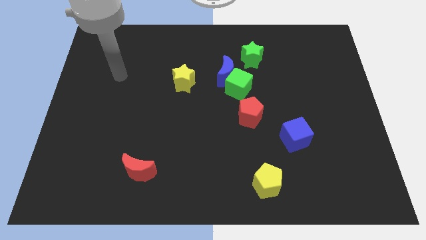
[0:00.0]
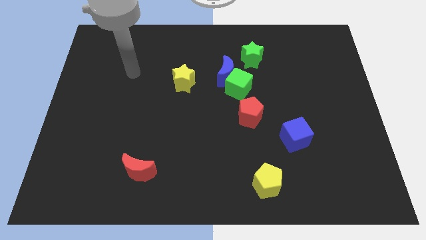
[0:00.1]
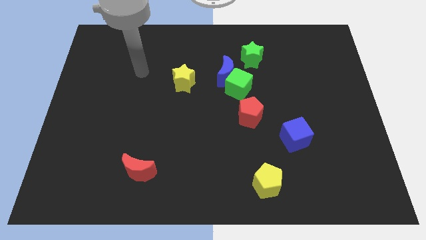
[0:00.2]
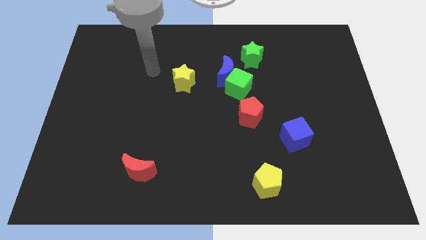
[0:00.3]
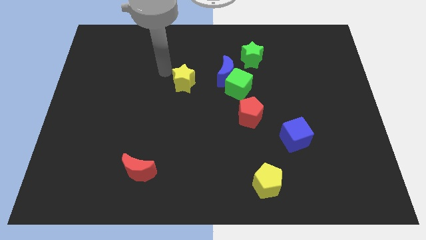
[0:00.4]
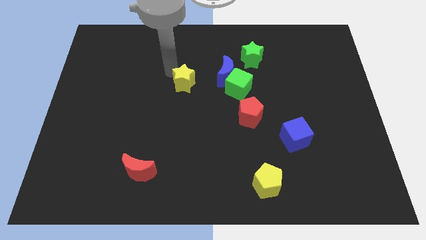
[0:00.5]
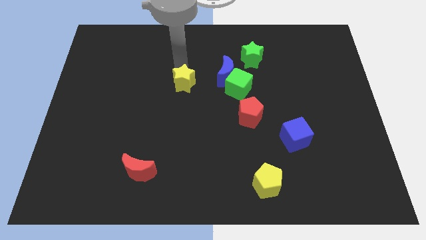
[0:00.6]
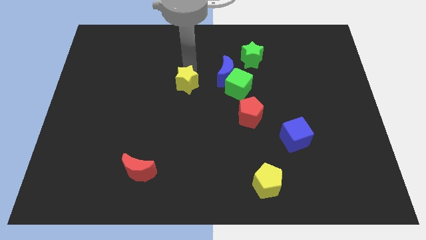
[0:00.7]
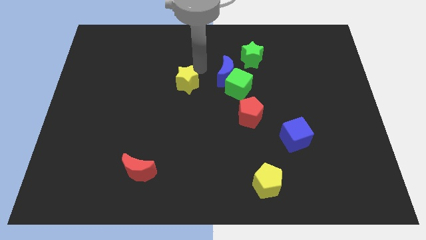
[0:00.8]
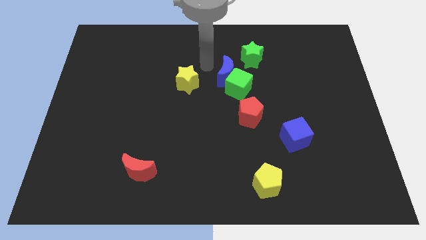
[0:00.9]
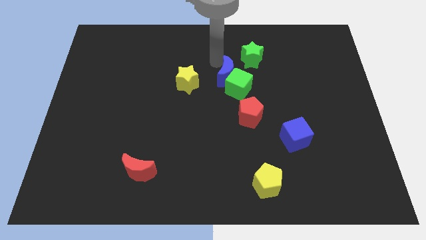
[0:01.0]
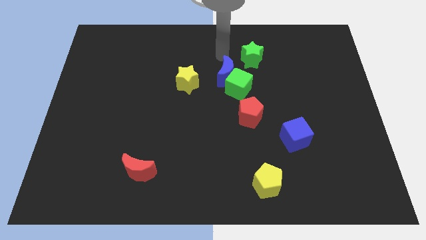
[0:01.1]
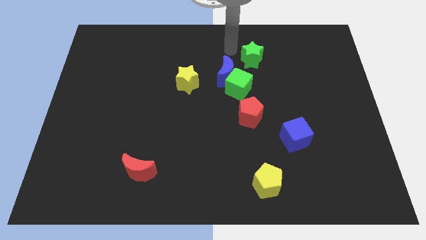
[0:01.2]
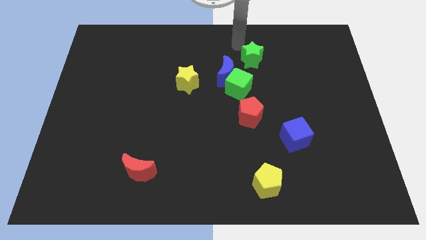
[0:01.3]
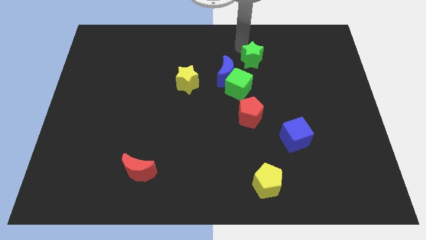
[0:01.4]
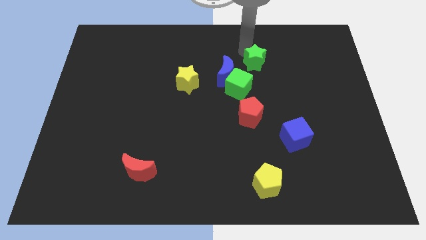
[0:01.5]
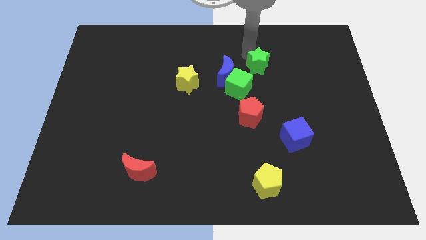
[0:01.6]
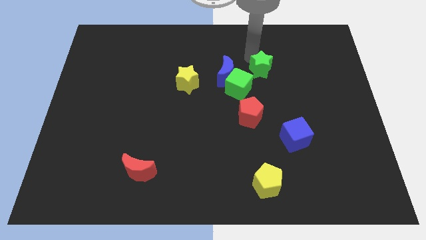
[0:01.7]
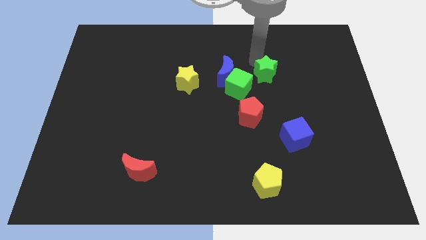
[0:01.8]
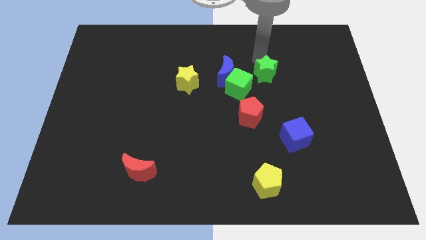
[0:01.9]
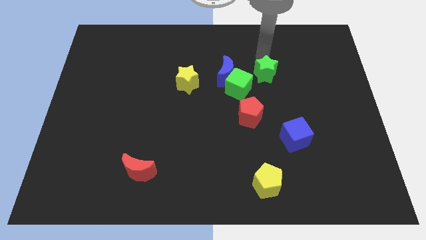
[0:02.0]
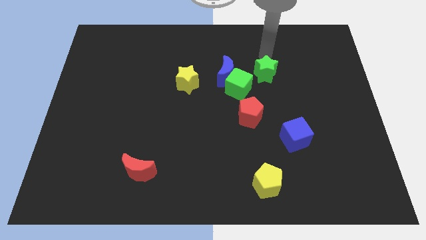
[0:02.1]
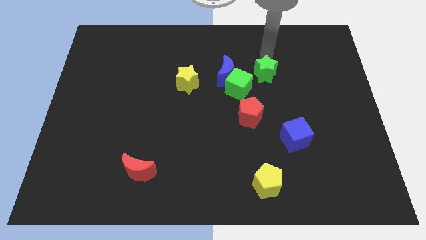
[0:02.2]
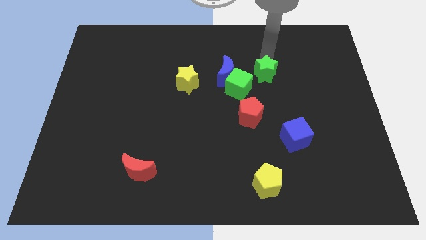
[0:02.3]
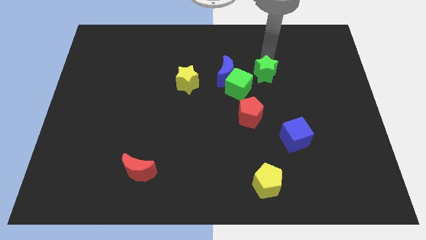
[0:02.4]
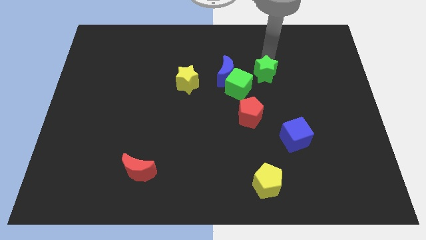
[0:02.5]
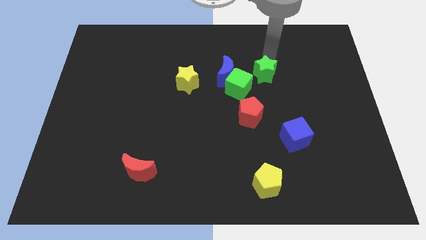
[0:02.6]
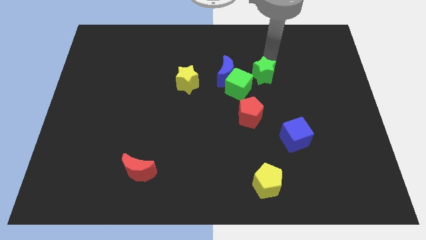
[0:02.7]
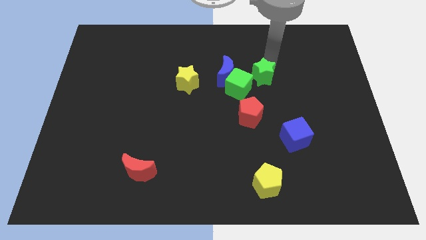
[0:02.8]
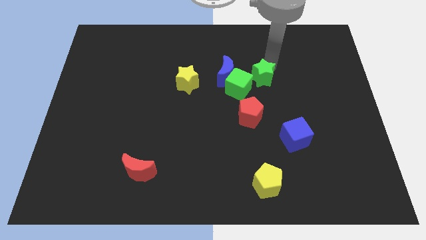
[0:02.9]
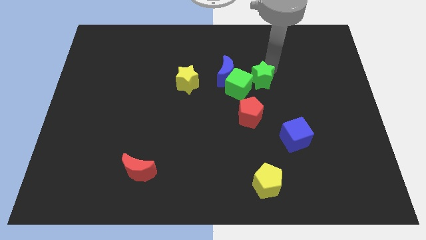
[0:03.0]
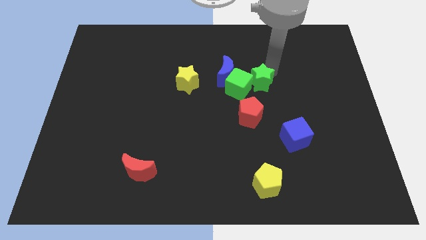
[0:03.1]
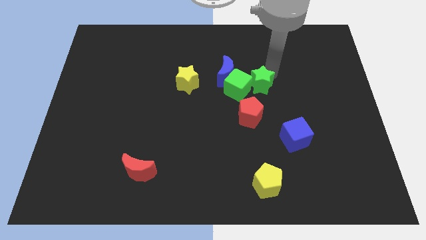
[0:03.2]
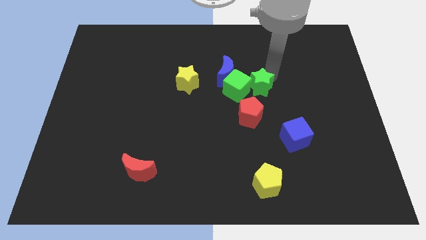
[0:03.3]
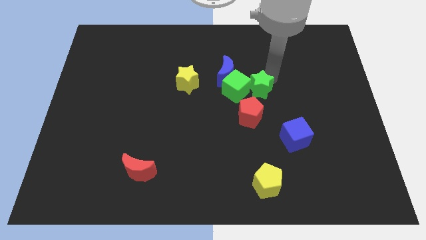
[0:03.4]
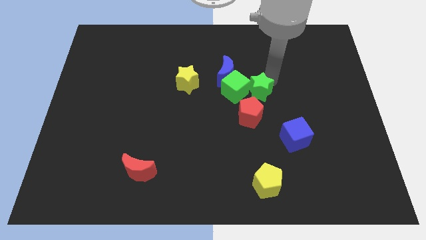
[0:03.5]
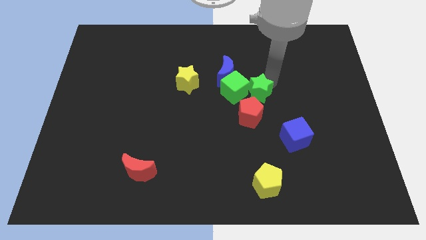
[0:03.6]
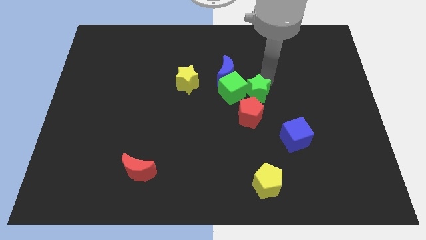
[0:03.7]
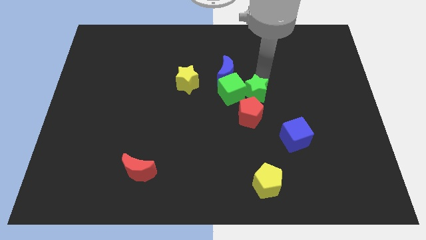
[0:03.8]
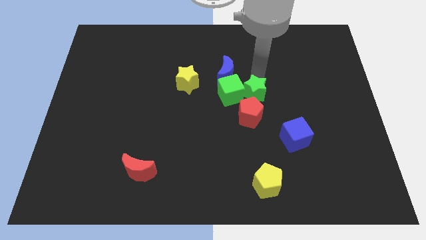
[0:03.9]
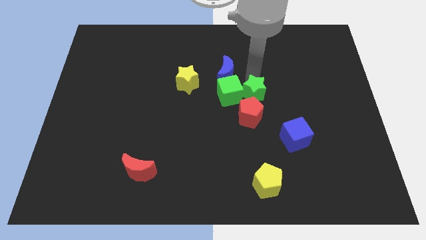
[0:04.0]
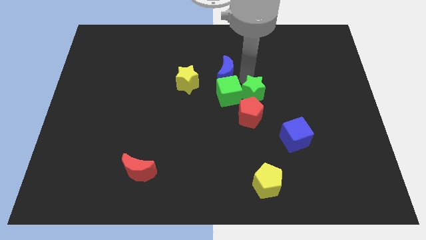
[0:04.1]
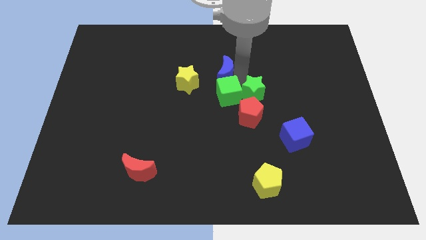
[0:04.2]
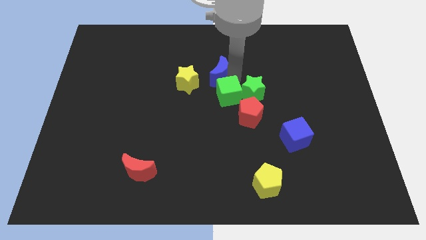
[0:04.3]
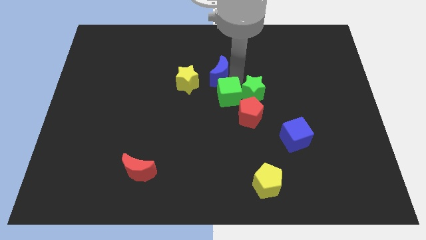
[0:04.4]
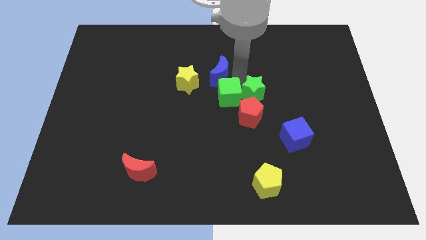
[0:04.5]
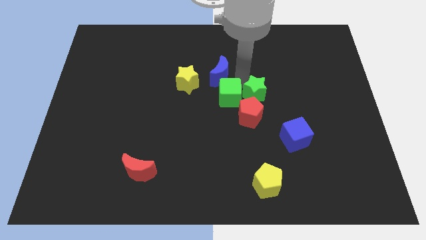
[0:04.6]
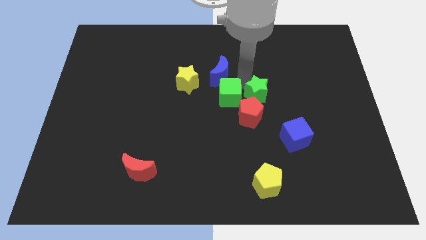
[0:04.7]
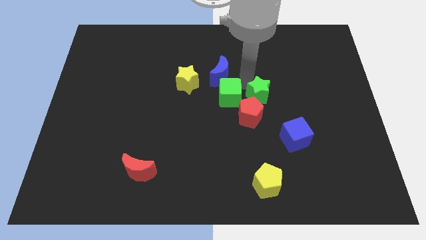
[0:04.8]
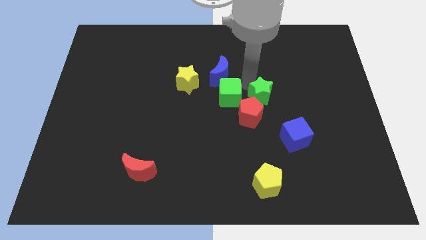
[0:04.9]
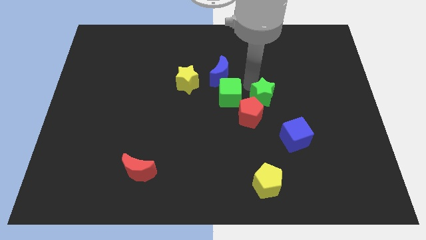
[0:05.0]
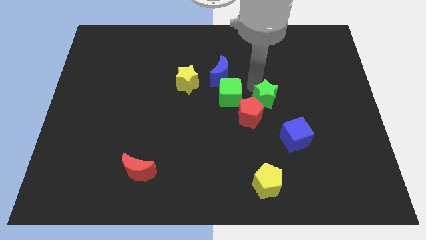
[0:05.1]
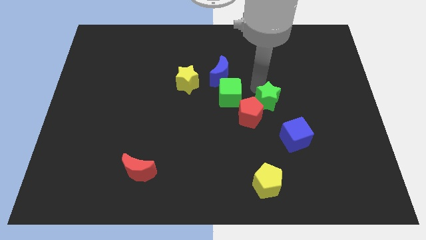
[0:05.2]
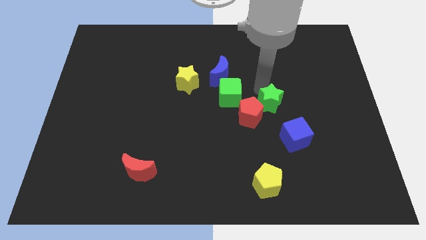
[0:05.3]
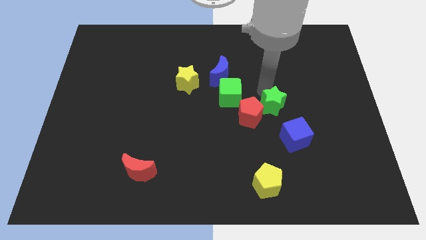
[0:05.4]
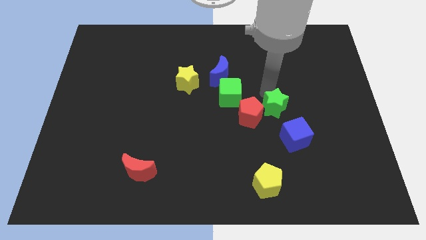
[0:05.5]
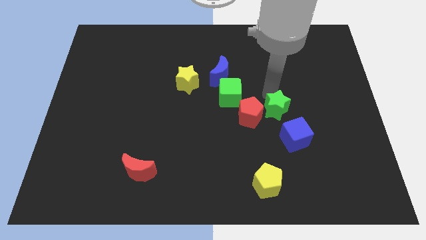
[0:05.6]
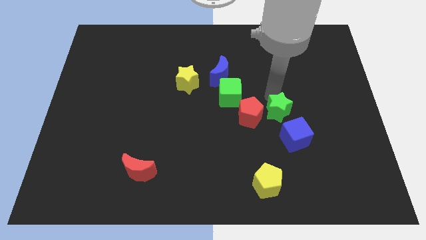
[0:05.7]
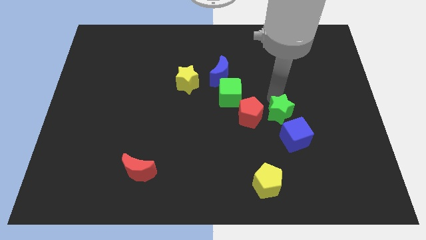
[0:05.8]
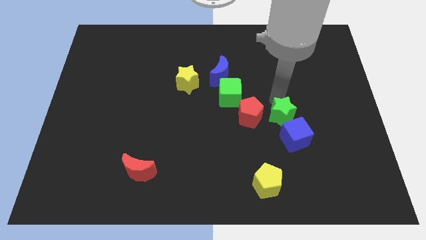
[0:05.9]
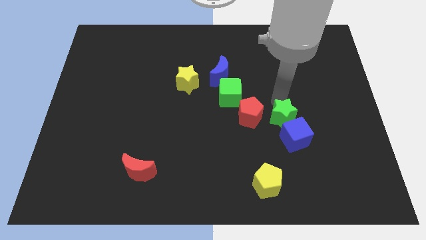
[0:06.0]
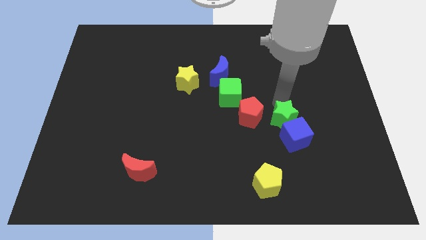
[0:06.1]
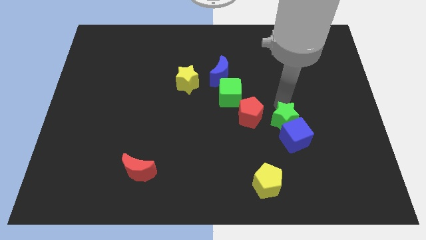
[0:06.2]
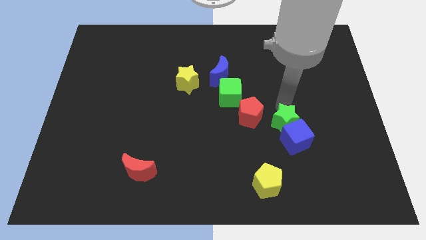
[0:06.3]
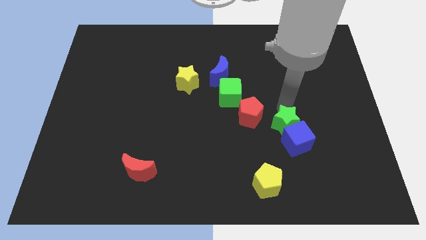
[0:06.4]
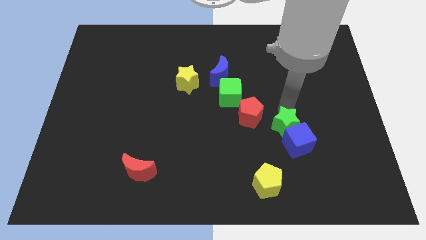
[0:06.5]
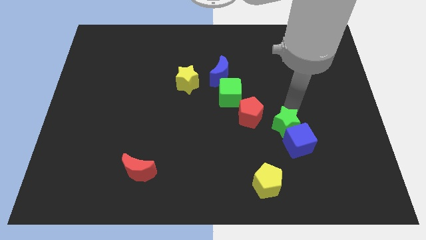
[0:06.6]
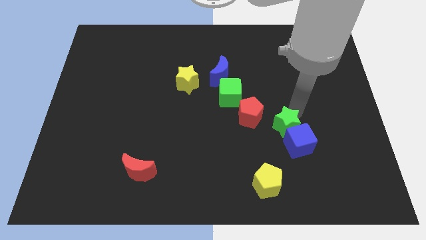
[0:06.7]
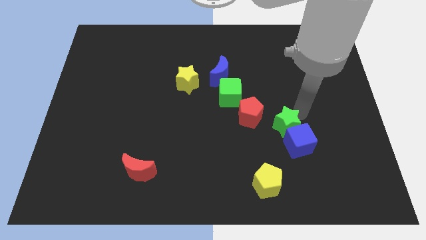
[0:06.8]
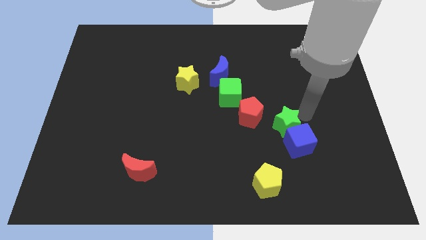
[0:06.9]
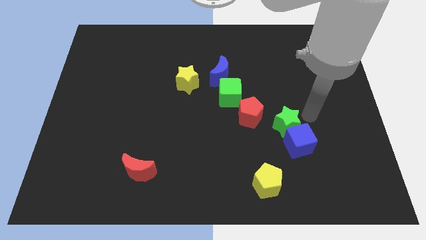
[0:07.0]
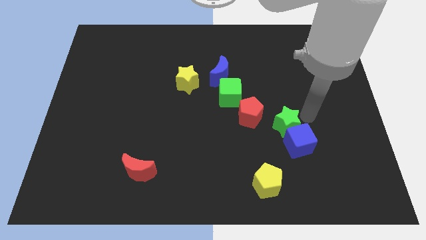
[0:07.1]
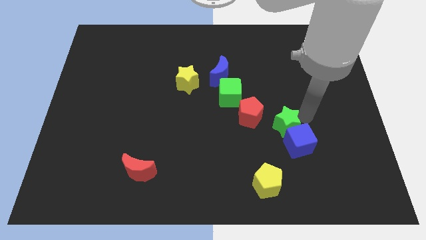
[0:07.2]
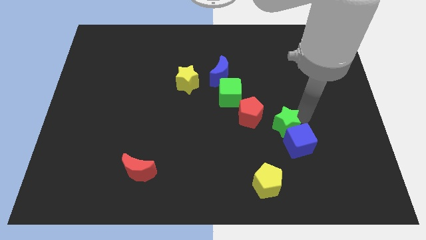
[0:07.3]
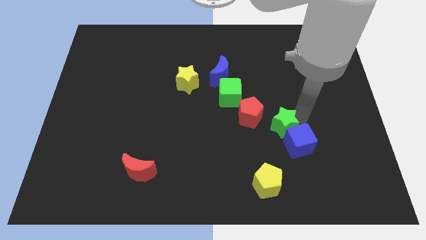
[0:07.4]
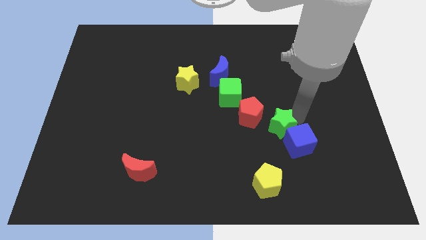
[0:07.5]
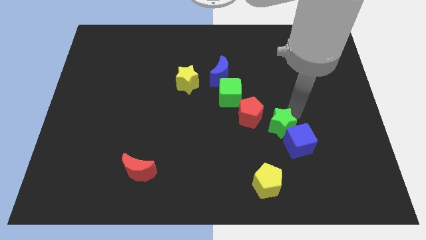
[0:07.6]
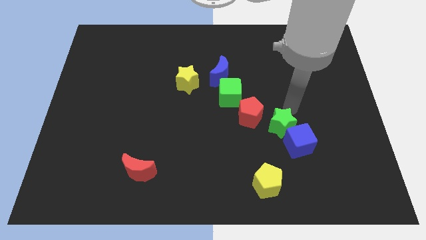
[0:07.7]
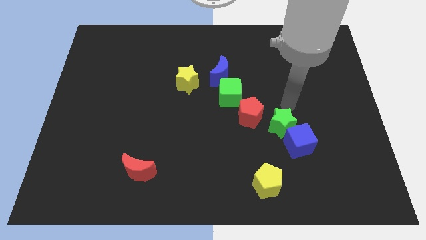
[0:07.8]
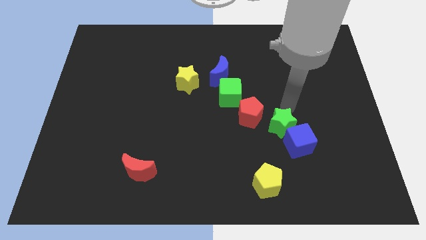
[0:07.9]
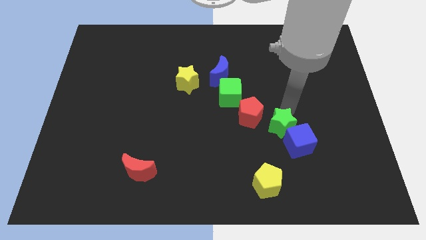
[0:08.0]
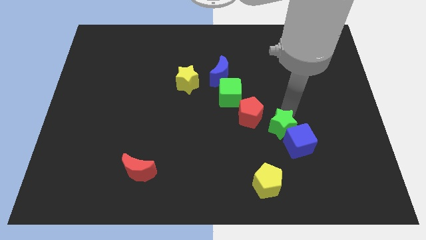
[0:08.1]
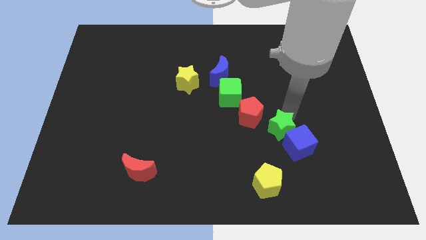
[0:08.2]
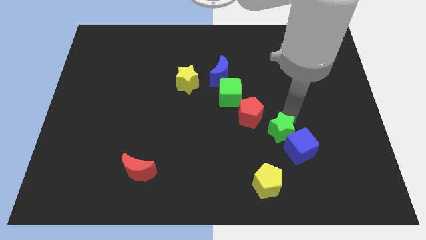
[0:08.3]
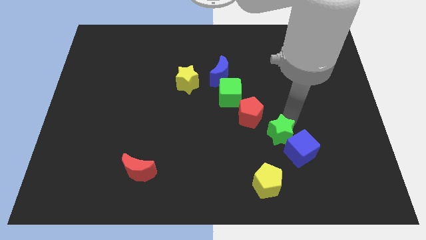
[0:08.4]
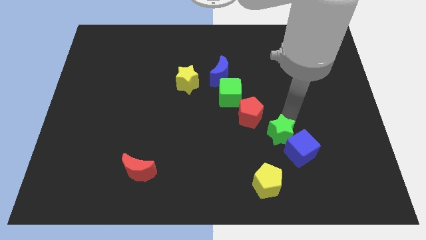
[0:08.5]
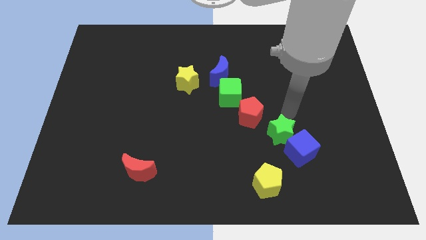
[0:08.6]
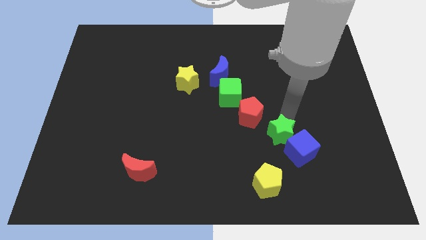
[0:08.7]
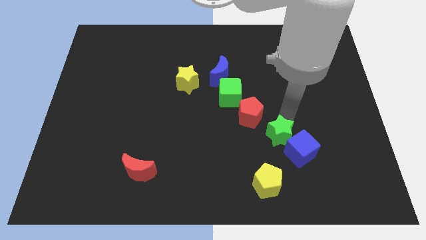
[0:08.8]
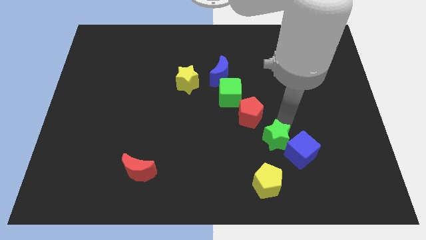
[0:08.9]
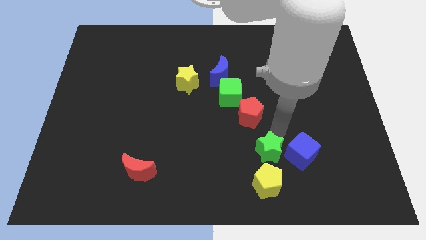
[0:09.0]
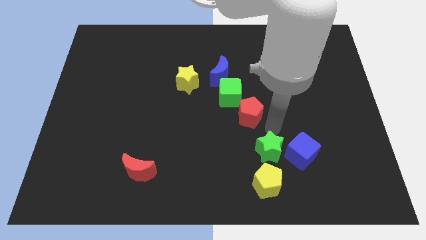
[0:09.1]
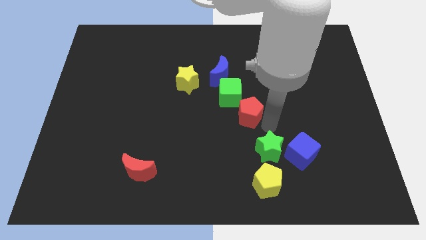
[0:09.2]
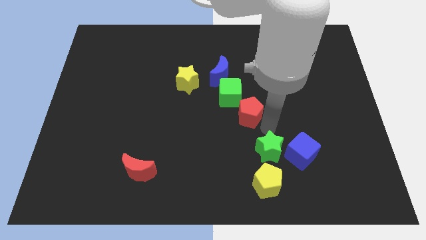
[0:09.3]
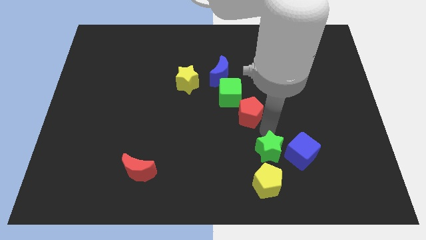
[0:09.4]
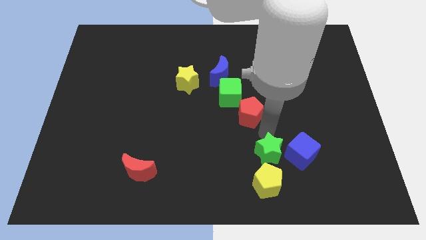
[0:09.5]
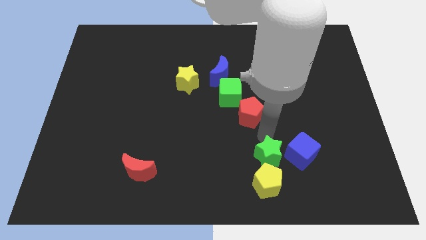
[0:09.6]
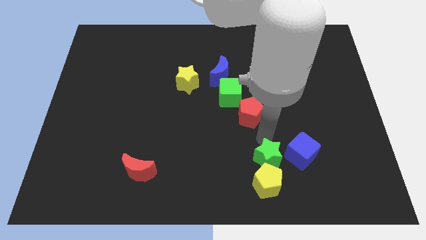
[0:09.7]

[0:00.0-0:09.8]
push the green star close to the yellow pentagon
